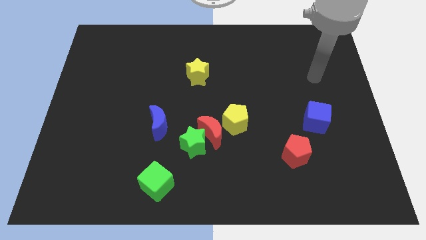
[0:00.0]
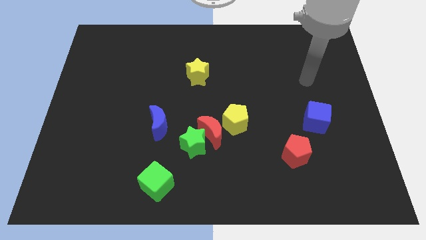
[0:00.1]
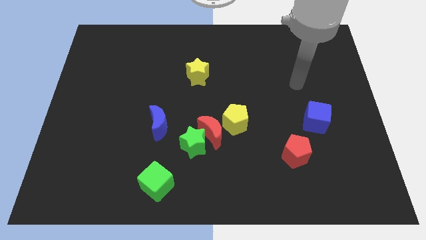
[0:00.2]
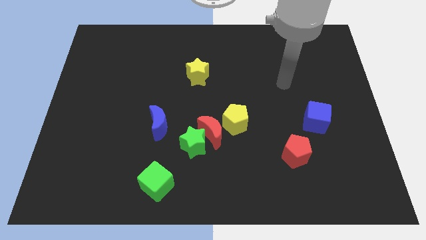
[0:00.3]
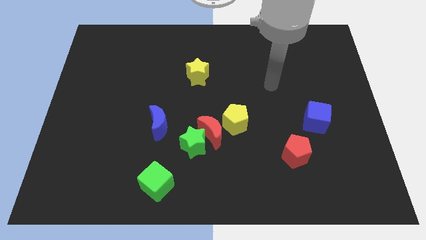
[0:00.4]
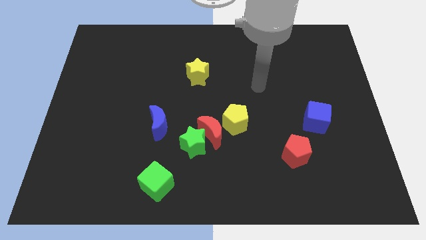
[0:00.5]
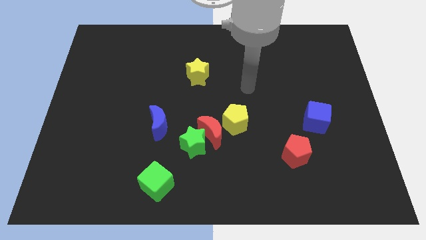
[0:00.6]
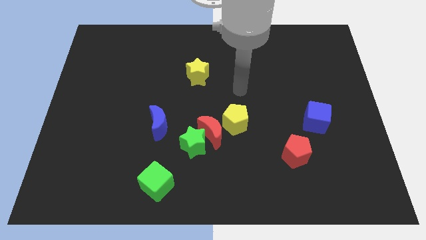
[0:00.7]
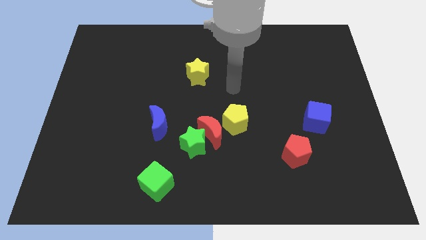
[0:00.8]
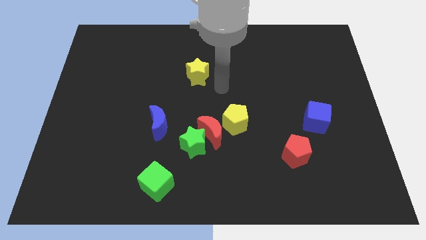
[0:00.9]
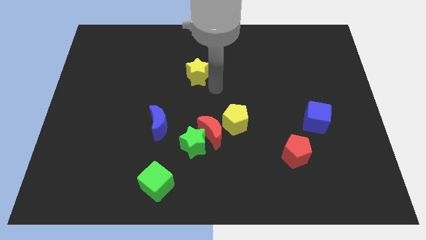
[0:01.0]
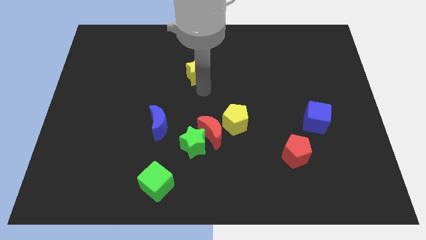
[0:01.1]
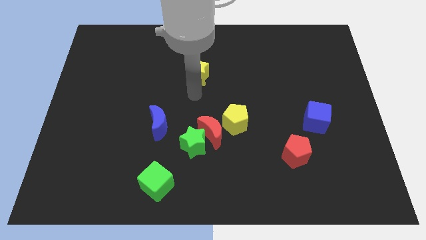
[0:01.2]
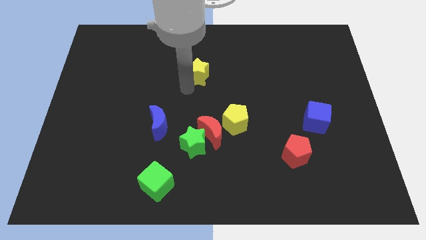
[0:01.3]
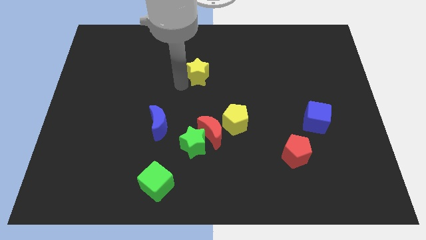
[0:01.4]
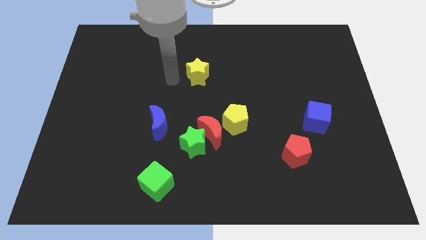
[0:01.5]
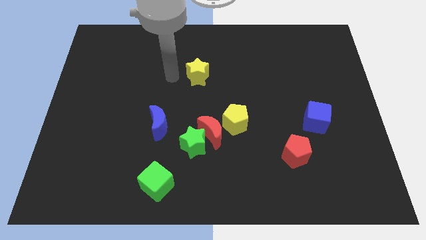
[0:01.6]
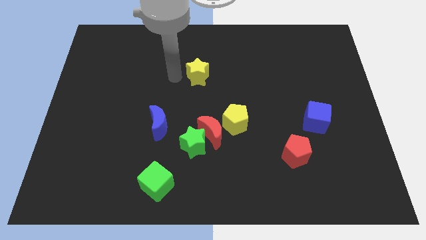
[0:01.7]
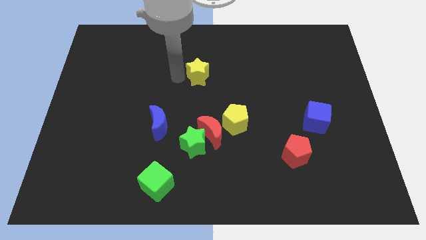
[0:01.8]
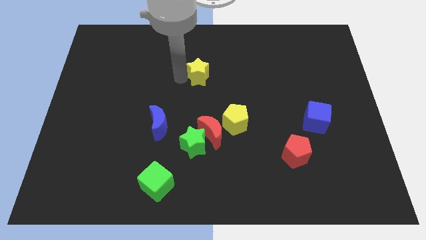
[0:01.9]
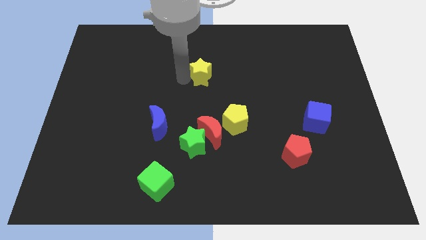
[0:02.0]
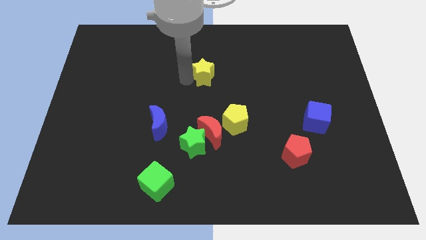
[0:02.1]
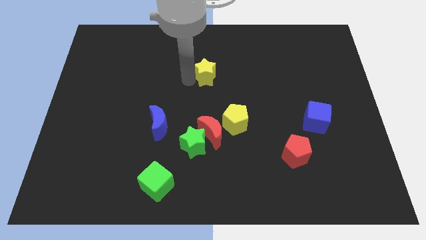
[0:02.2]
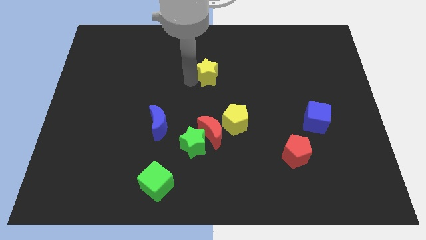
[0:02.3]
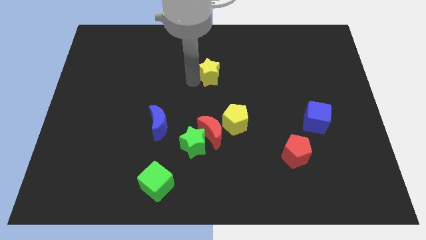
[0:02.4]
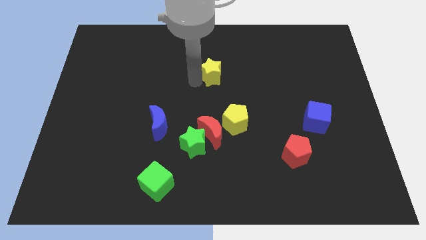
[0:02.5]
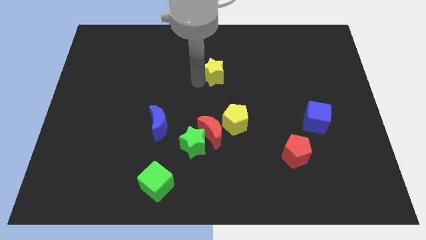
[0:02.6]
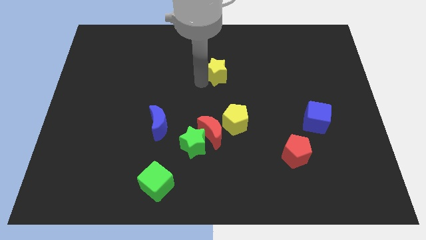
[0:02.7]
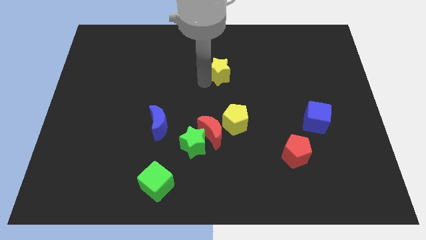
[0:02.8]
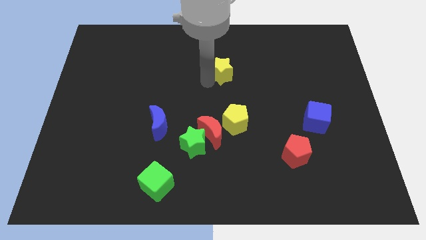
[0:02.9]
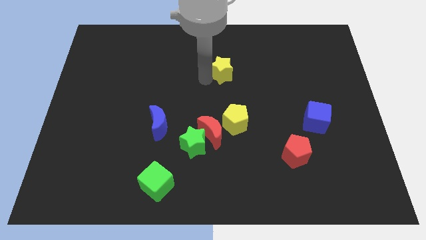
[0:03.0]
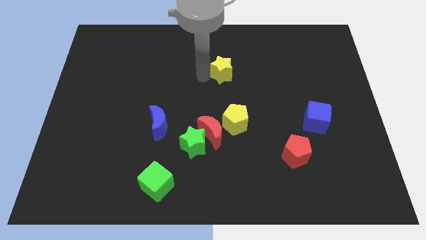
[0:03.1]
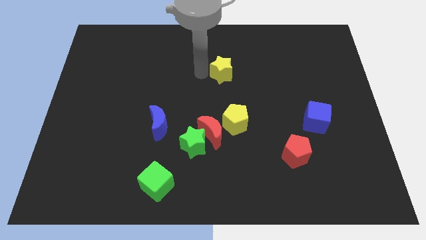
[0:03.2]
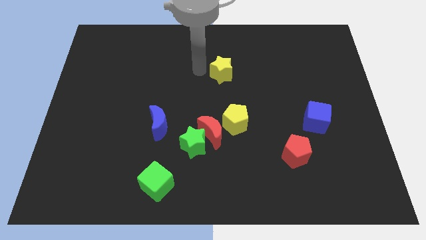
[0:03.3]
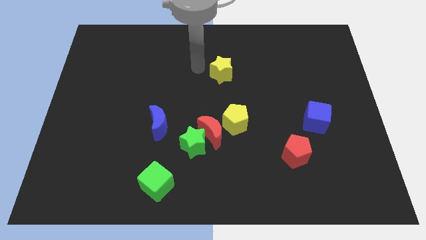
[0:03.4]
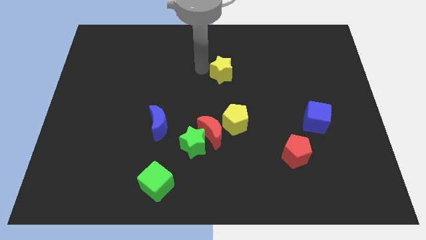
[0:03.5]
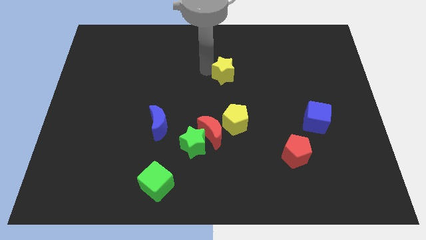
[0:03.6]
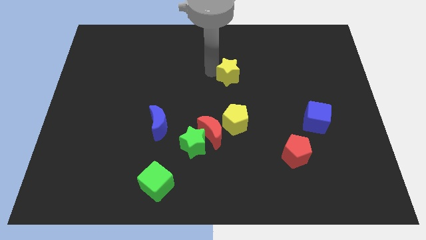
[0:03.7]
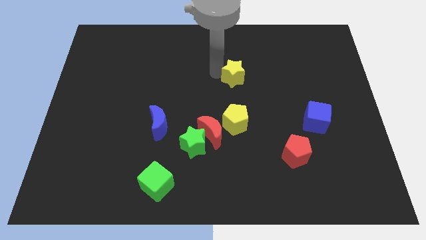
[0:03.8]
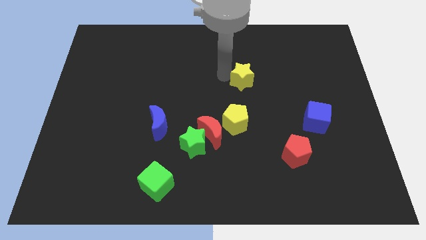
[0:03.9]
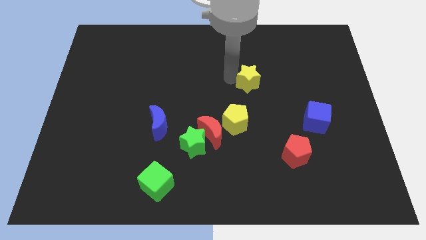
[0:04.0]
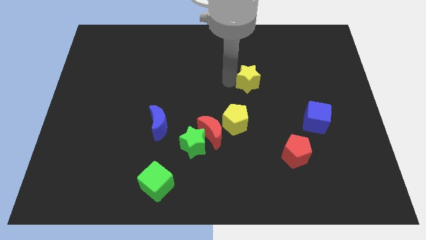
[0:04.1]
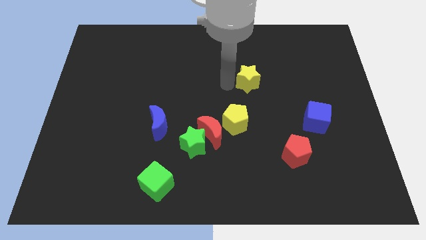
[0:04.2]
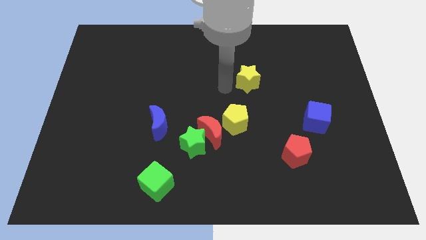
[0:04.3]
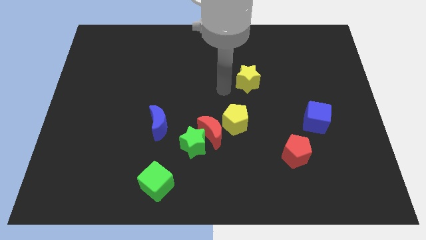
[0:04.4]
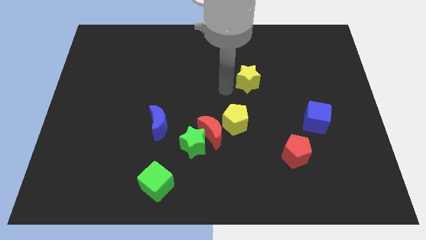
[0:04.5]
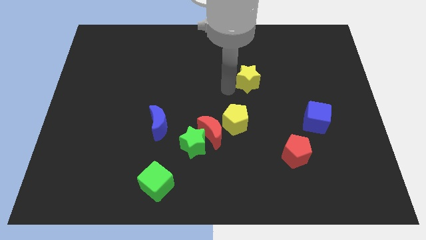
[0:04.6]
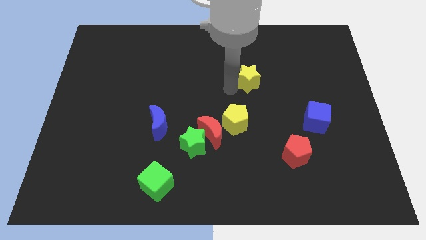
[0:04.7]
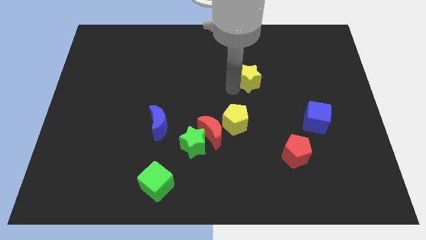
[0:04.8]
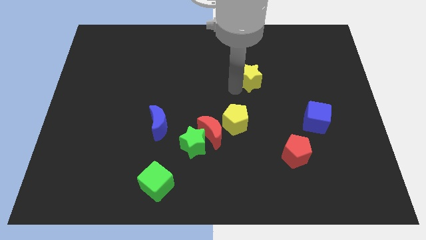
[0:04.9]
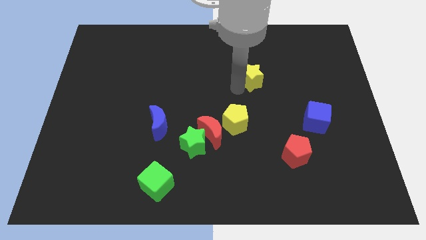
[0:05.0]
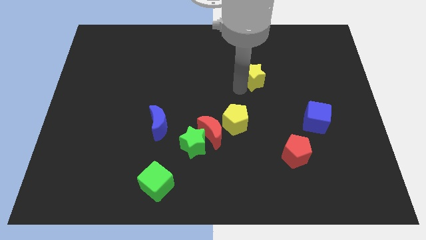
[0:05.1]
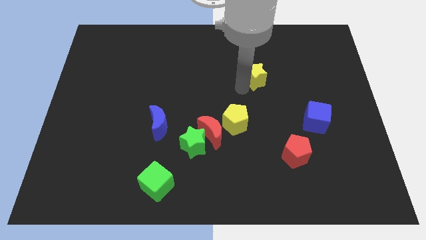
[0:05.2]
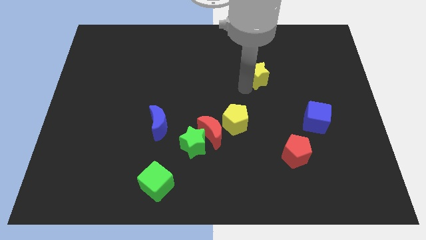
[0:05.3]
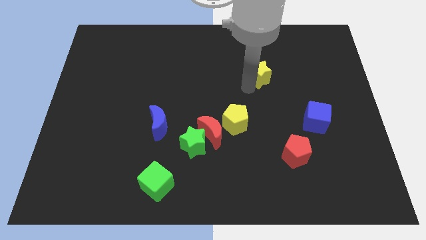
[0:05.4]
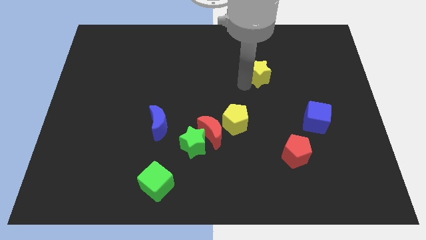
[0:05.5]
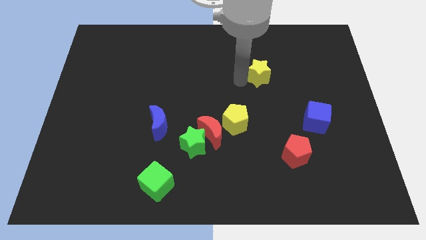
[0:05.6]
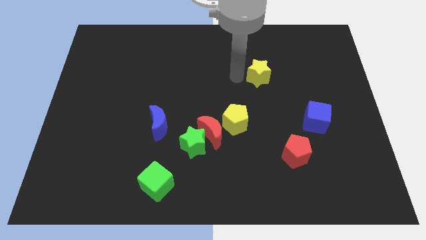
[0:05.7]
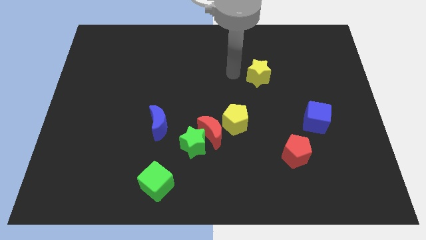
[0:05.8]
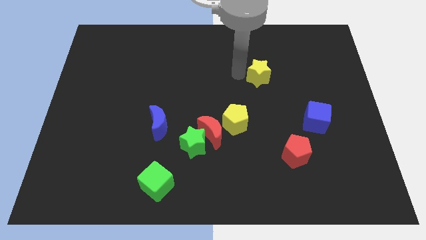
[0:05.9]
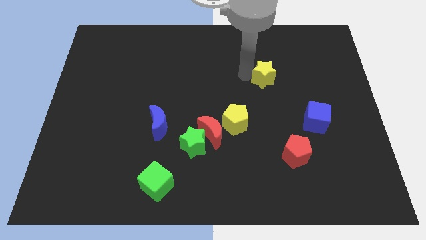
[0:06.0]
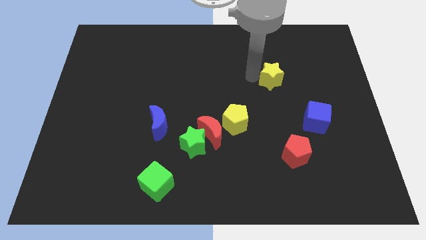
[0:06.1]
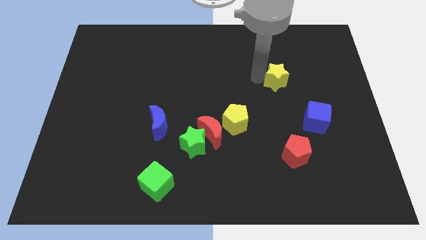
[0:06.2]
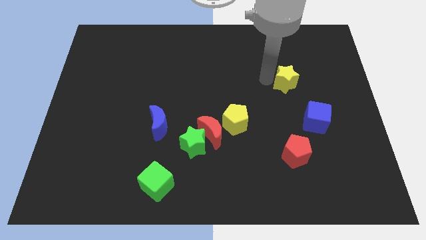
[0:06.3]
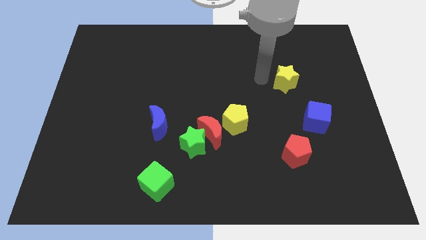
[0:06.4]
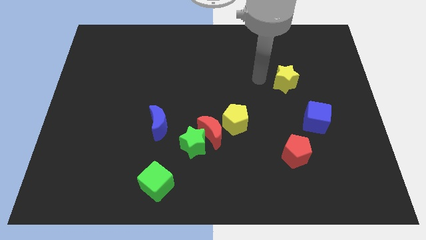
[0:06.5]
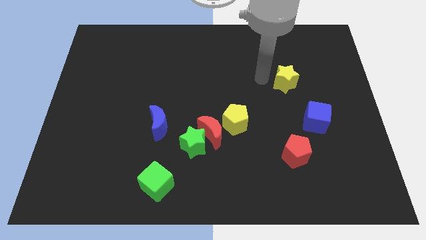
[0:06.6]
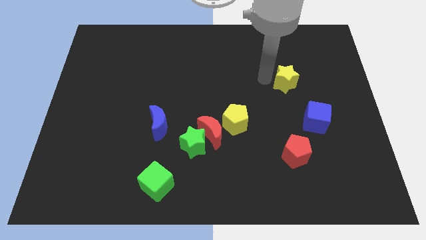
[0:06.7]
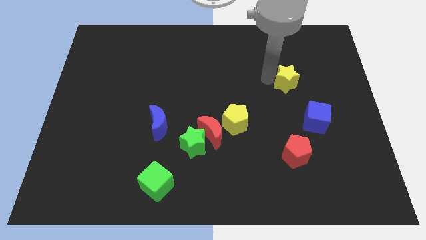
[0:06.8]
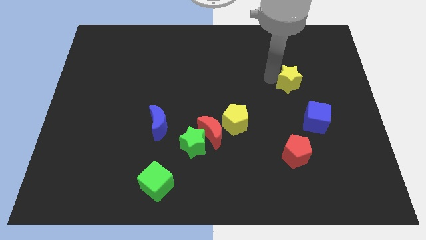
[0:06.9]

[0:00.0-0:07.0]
push the yellow star to the top of the blue cube
